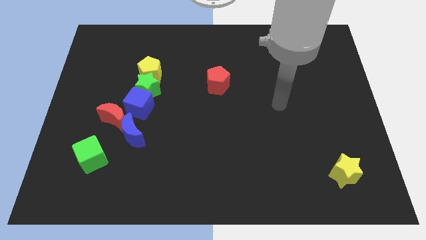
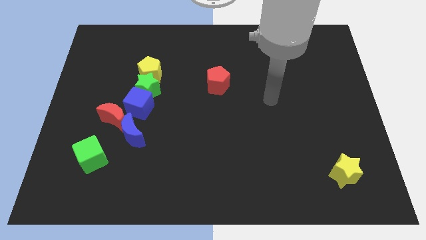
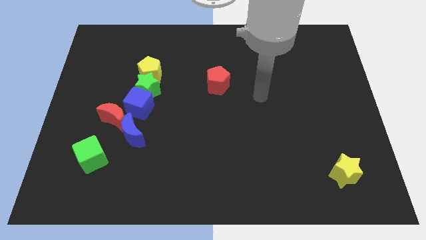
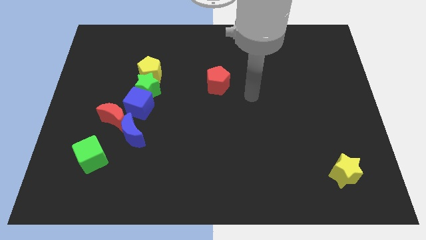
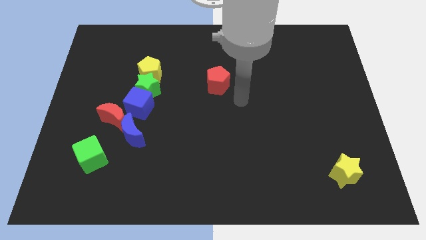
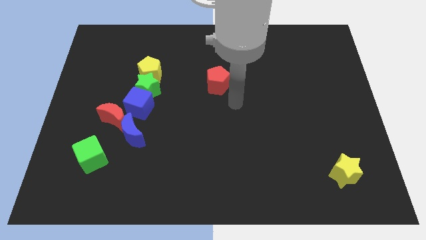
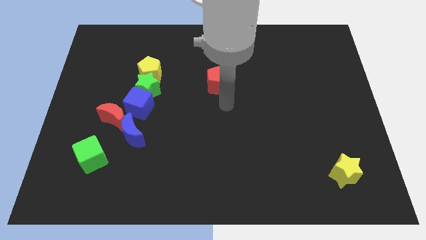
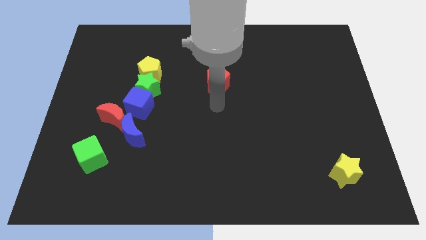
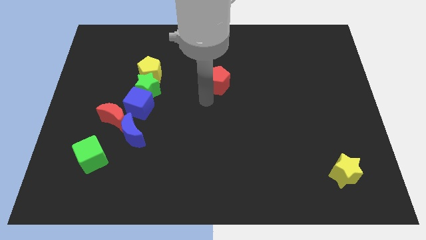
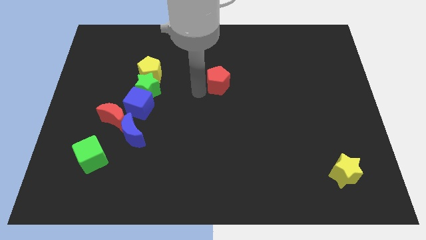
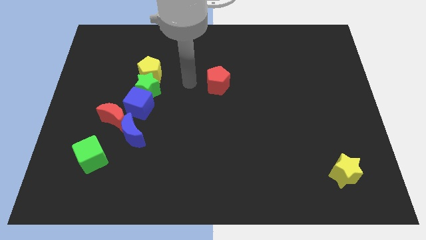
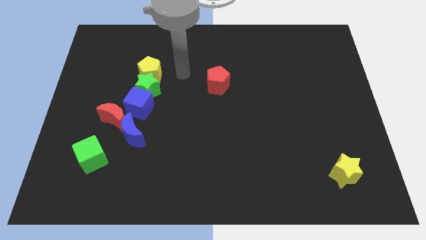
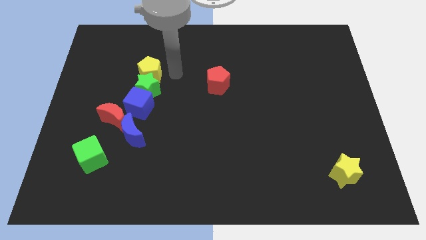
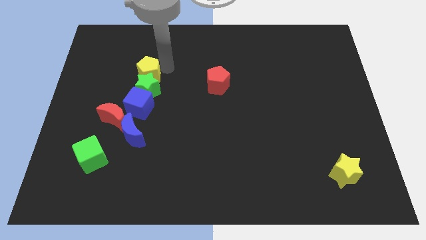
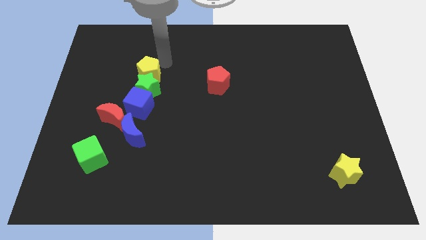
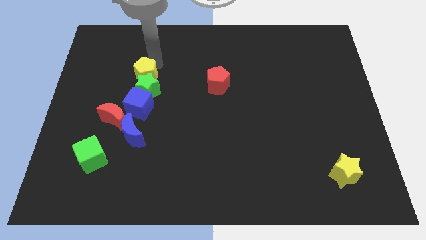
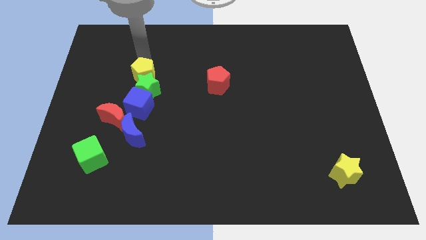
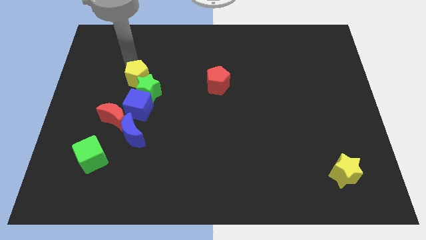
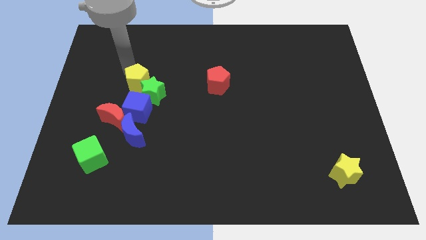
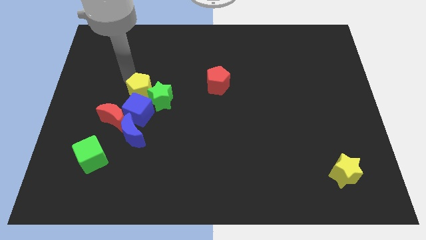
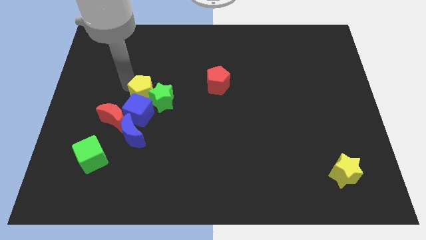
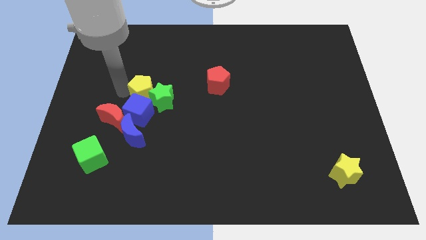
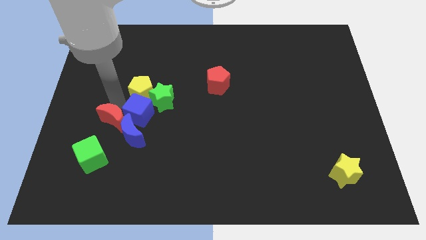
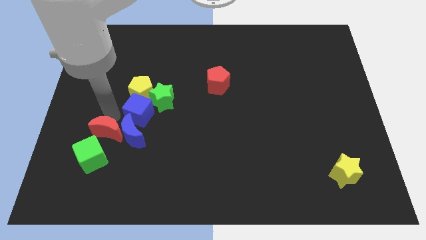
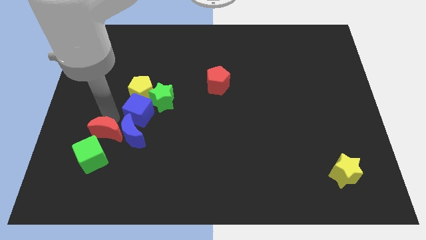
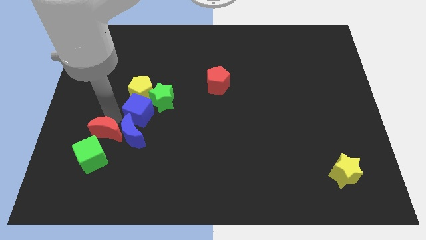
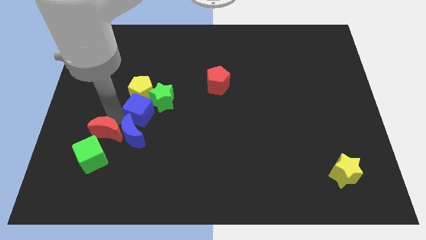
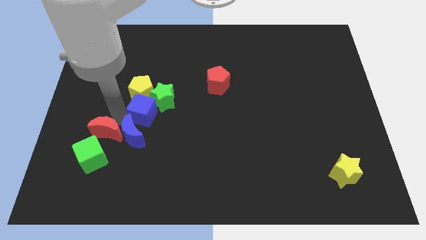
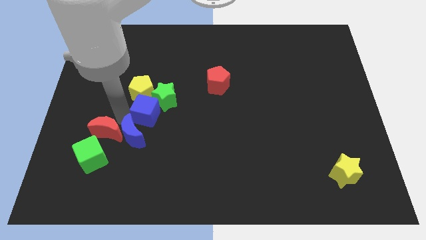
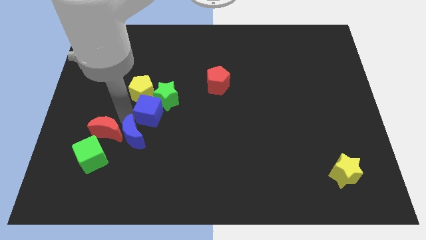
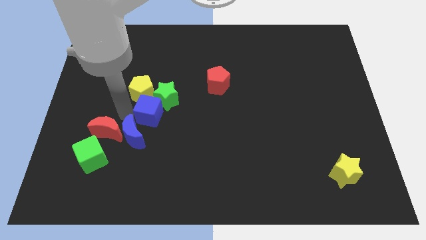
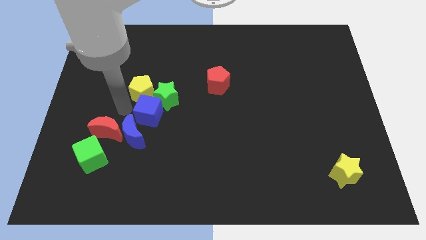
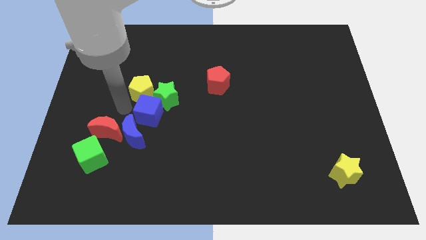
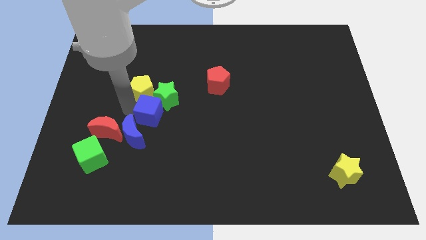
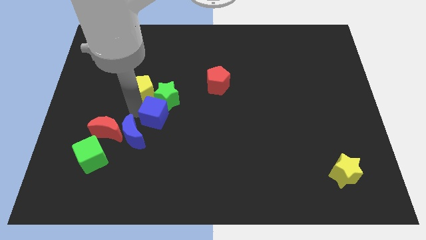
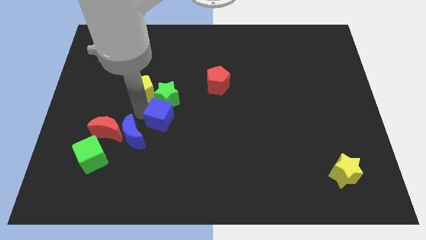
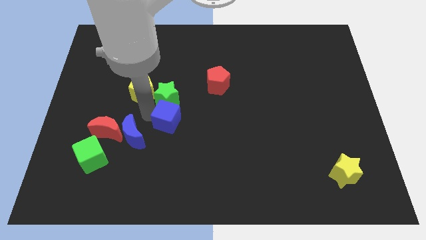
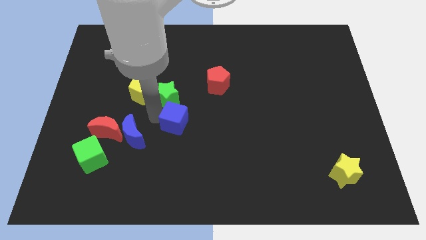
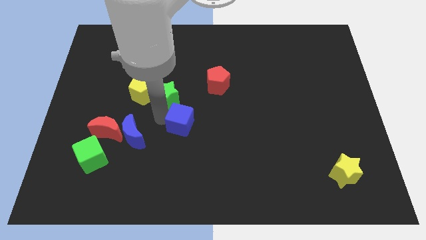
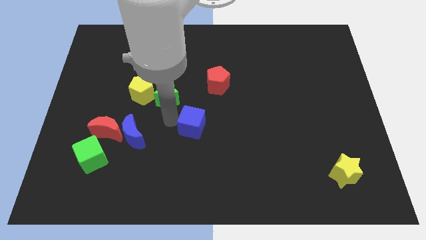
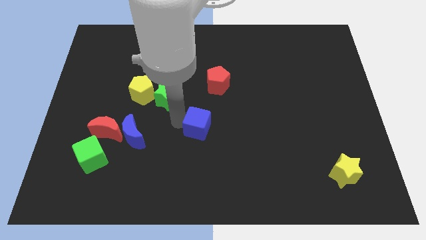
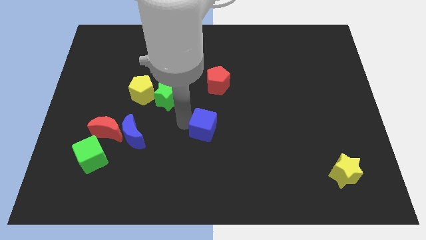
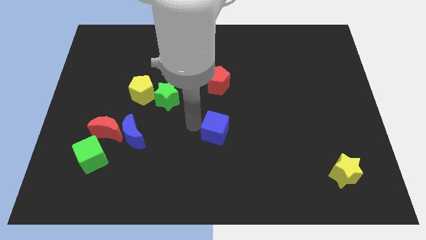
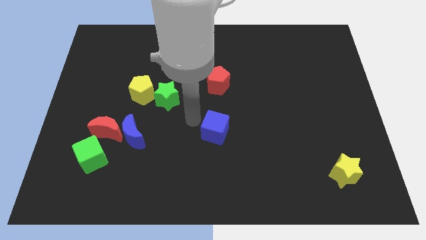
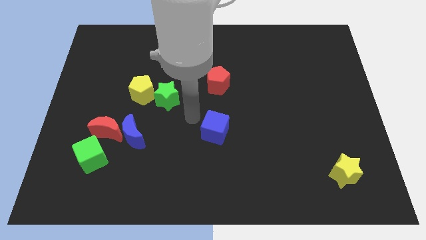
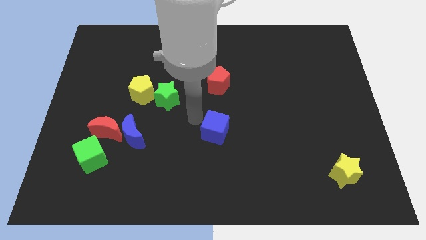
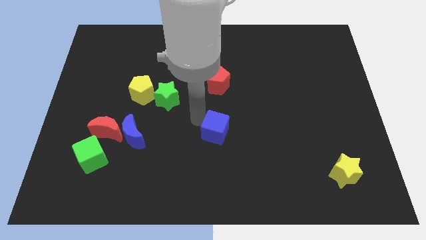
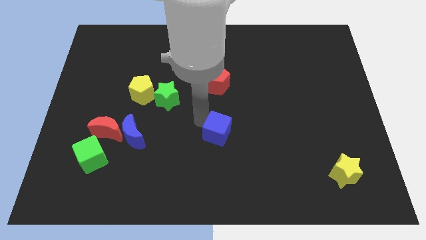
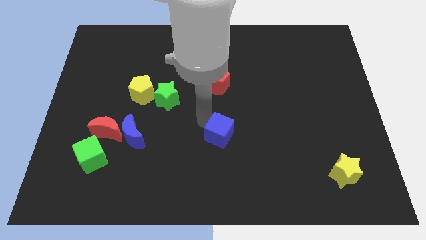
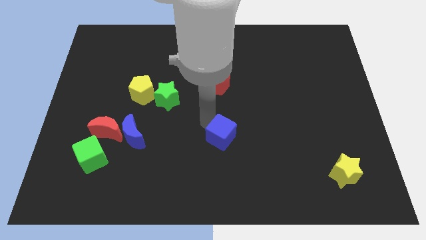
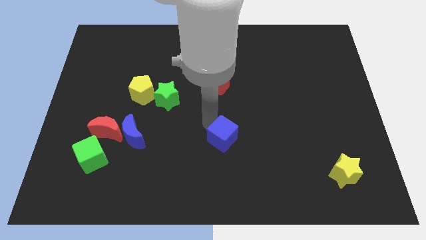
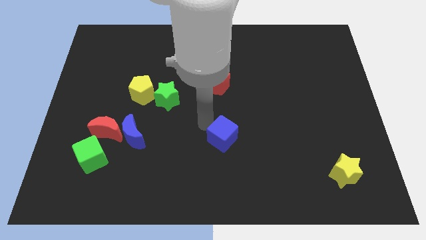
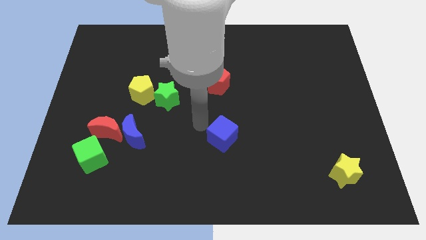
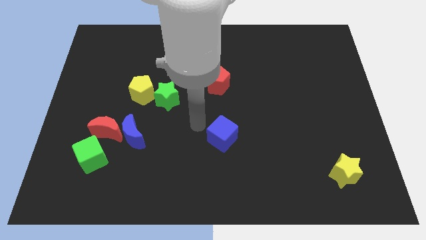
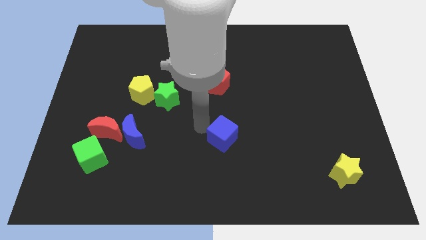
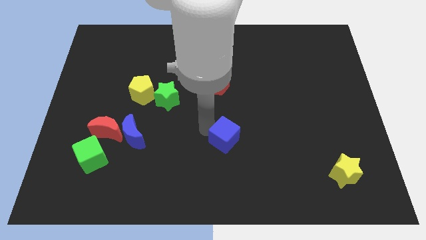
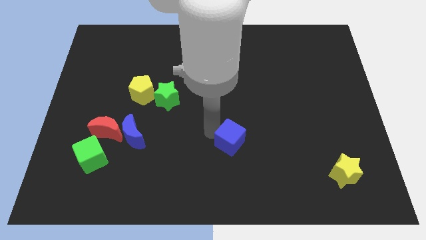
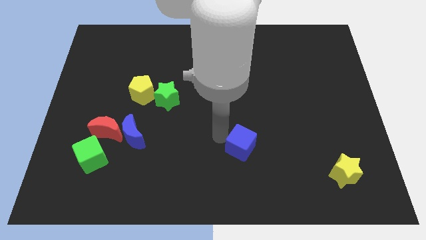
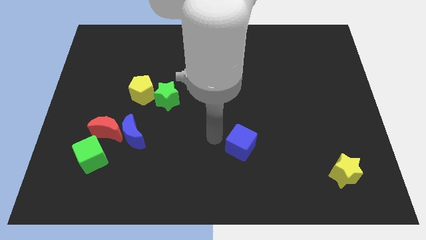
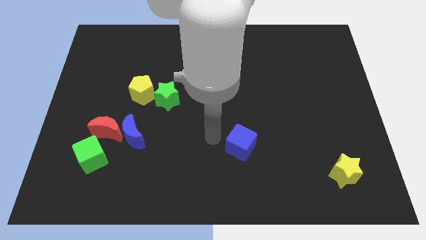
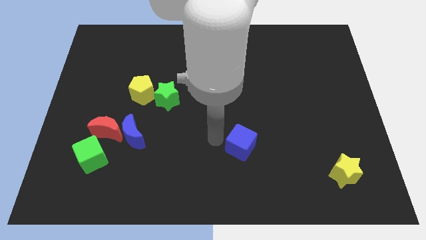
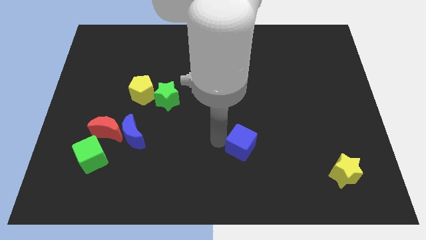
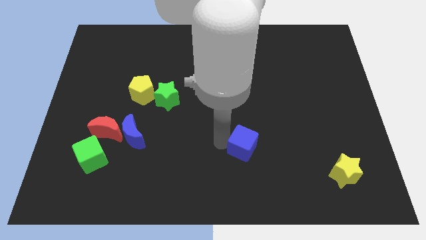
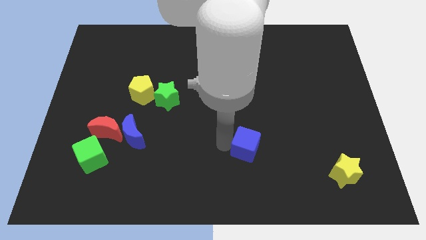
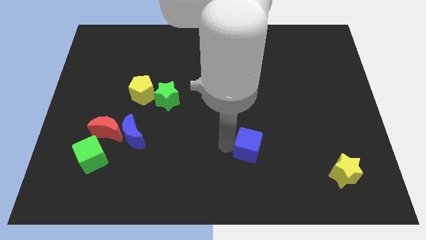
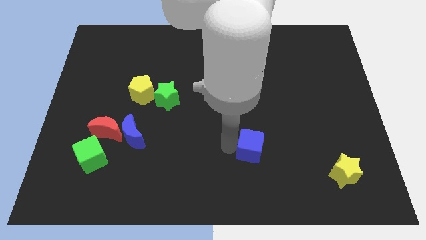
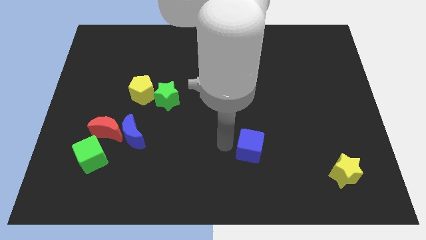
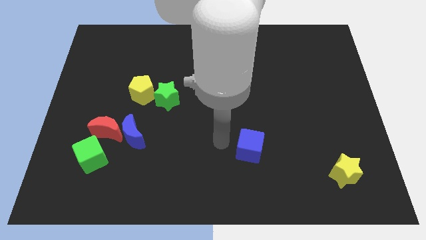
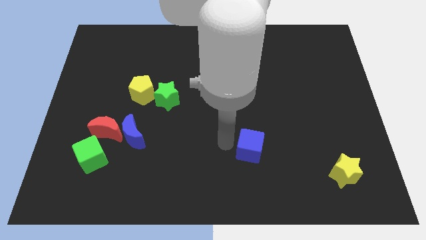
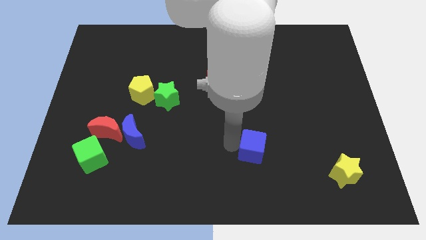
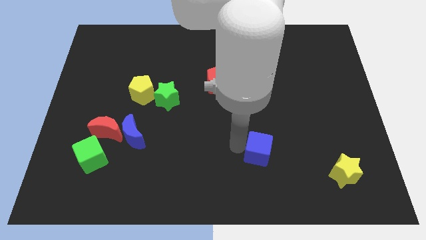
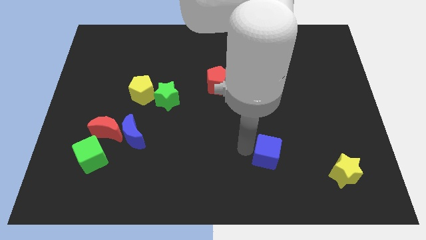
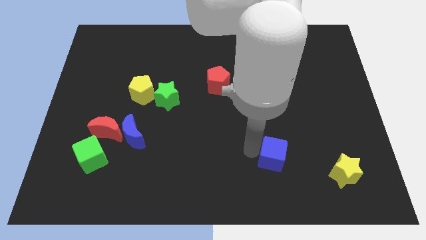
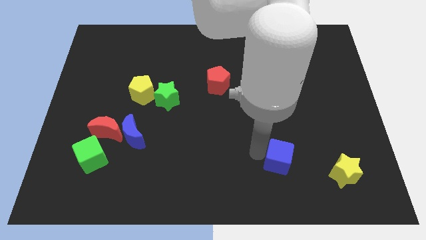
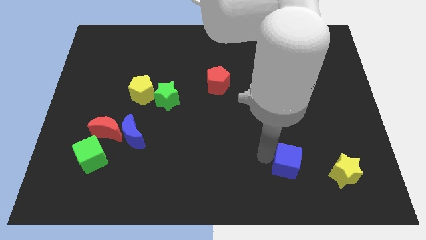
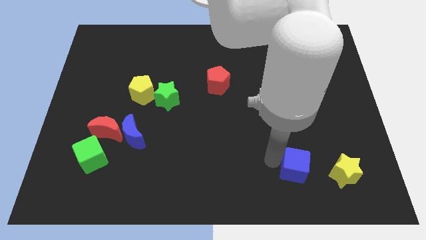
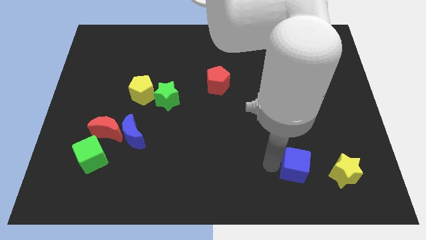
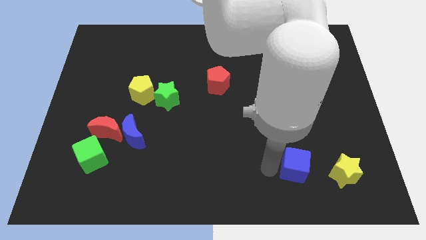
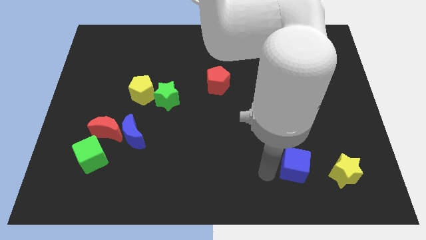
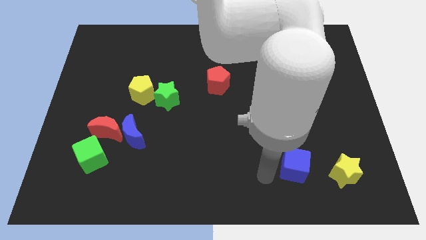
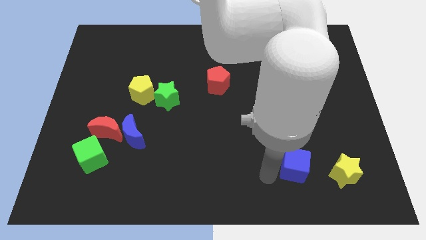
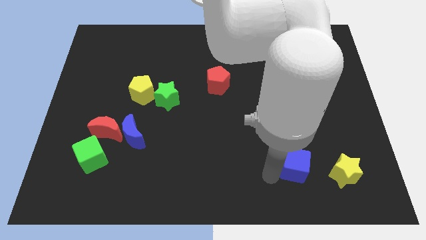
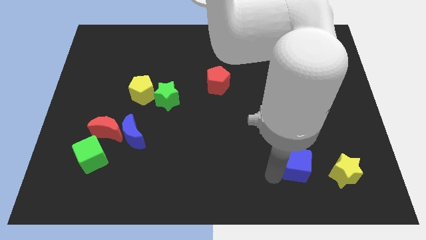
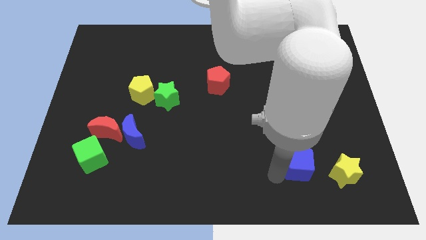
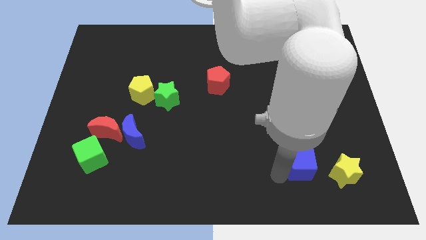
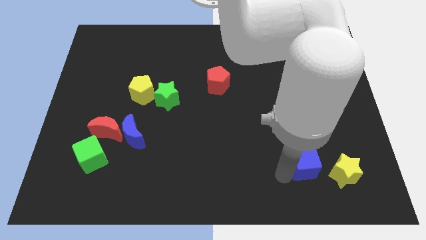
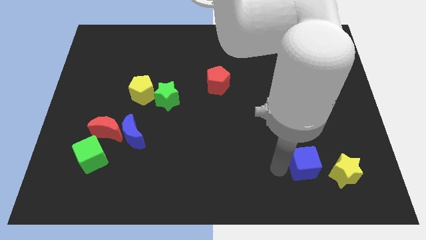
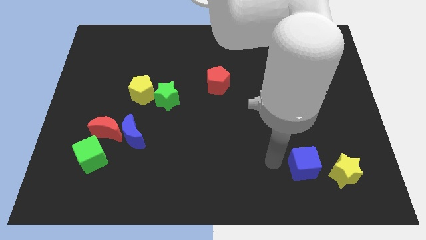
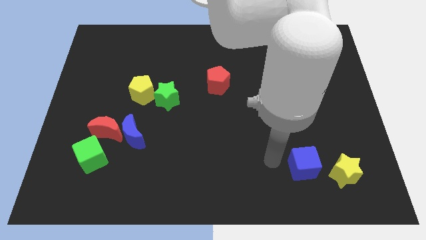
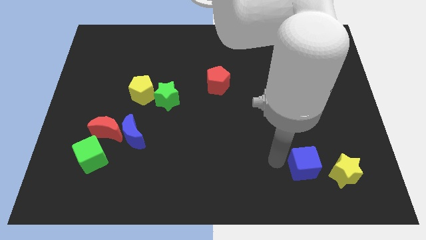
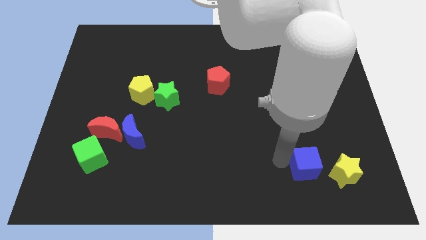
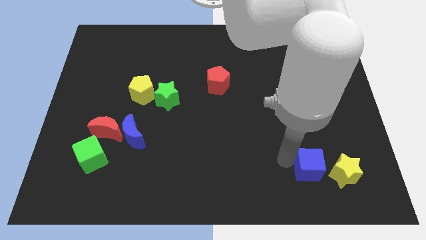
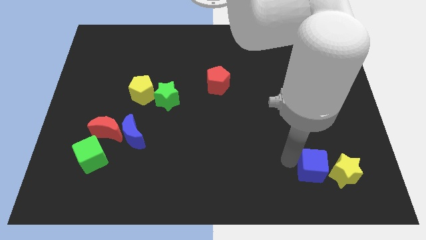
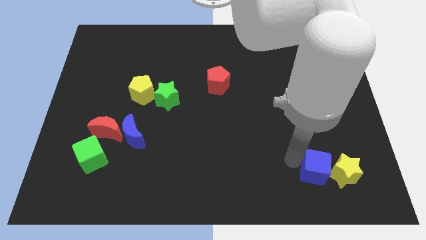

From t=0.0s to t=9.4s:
put the blue cube next to the yellow star
